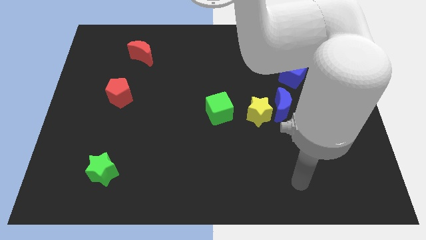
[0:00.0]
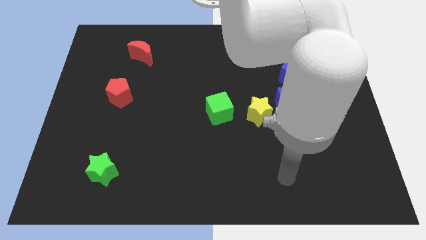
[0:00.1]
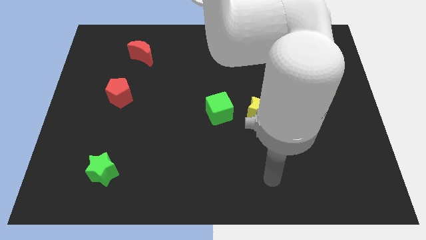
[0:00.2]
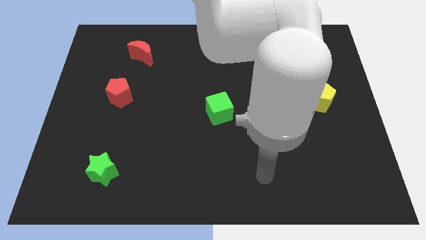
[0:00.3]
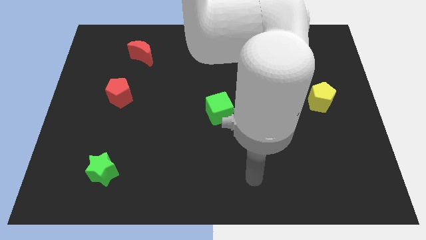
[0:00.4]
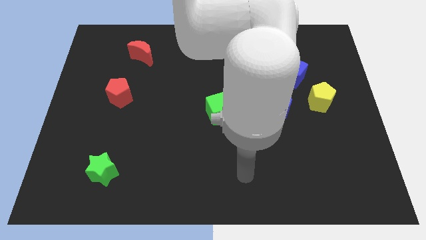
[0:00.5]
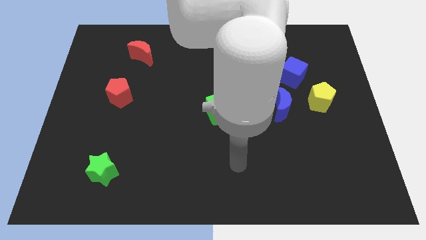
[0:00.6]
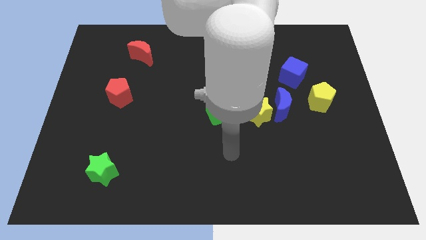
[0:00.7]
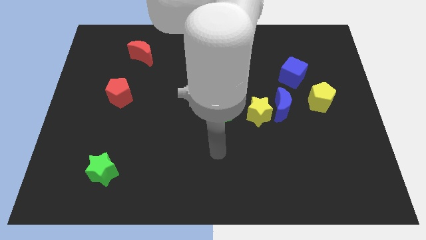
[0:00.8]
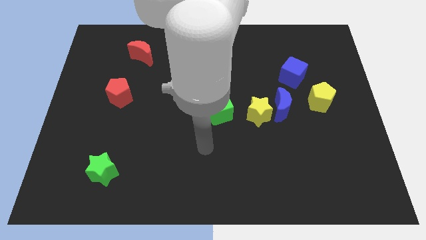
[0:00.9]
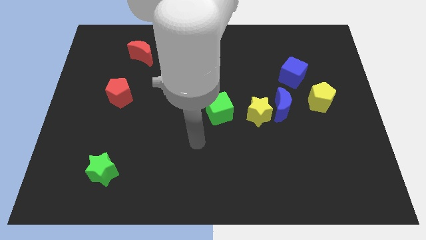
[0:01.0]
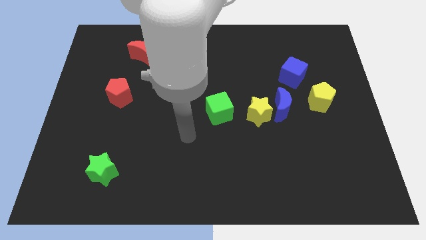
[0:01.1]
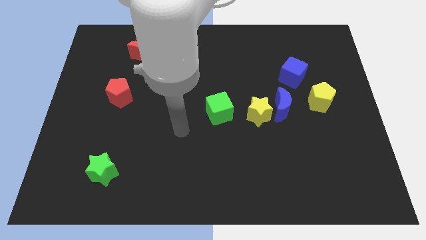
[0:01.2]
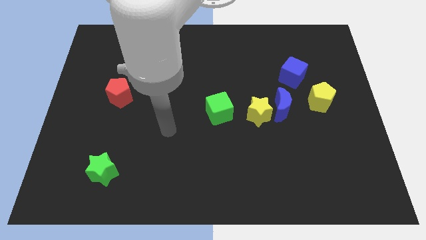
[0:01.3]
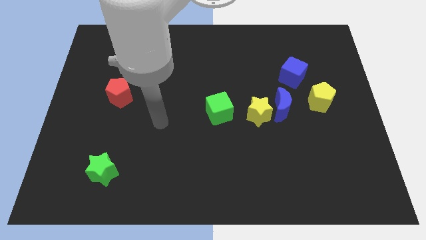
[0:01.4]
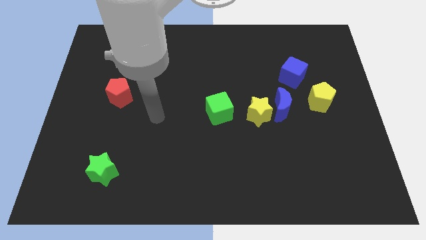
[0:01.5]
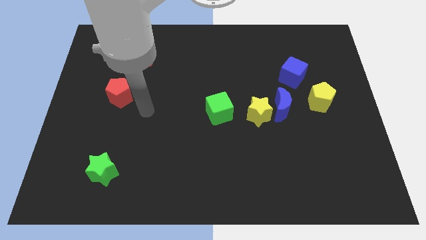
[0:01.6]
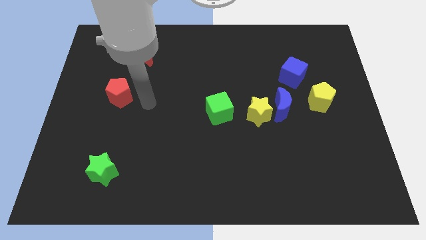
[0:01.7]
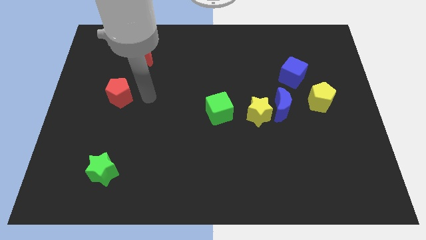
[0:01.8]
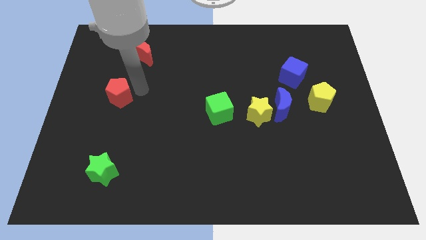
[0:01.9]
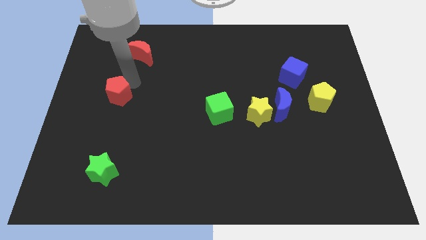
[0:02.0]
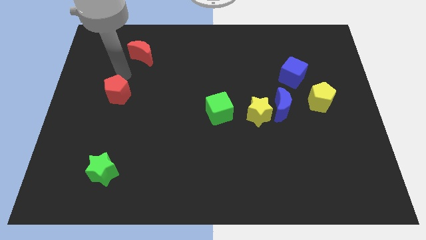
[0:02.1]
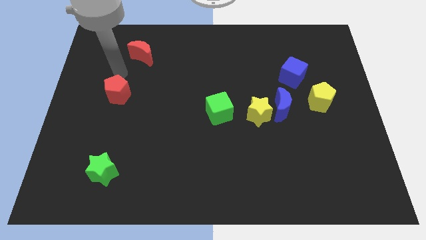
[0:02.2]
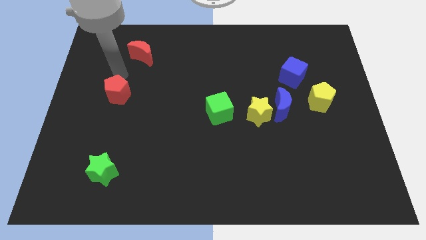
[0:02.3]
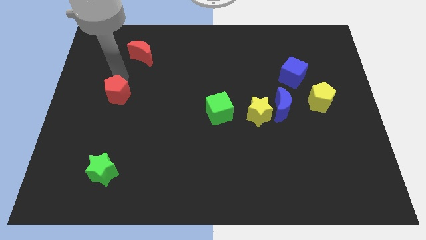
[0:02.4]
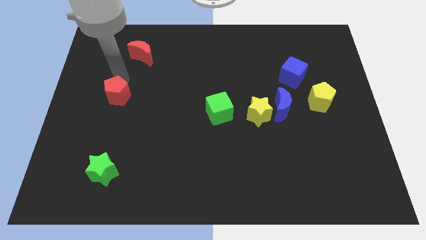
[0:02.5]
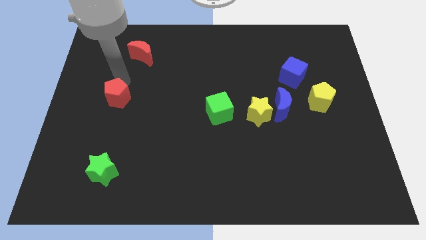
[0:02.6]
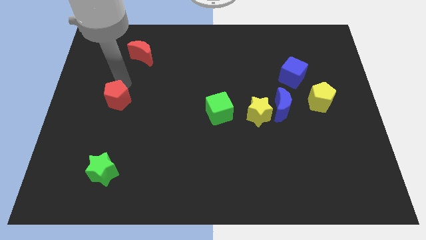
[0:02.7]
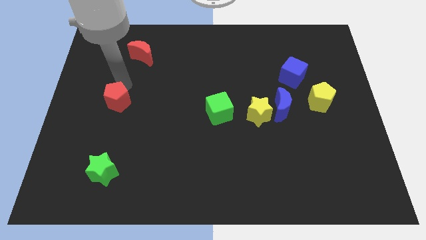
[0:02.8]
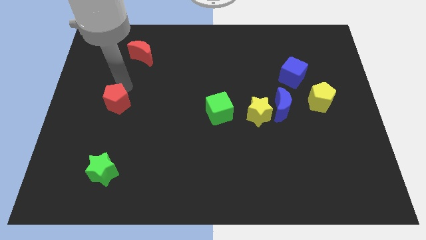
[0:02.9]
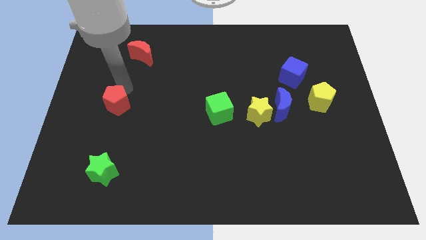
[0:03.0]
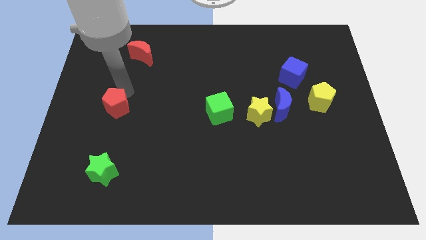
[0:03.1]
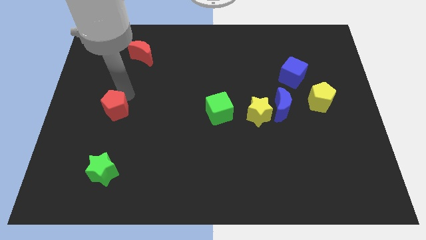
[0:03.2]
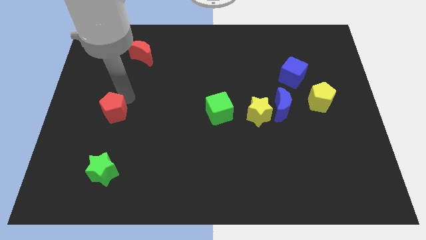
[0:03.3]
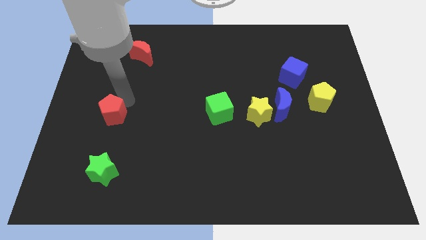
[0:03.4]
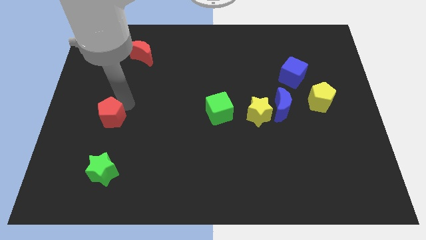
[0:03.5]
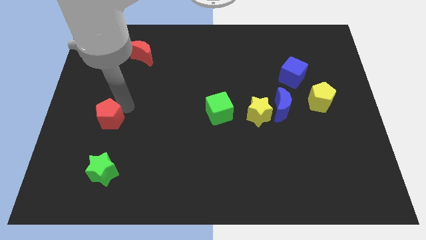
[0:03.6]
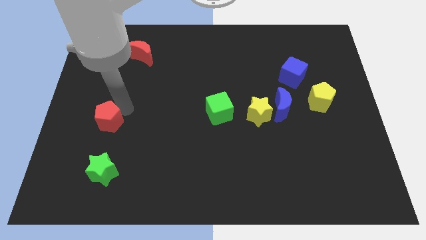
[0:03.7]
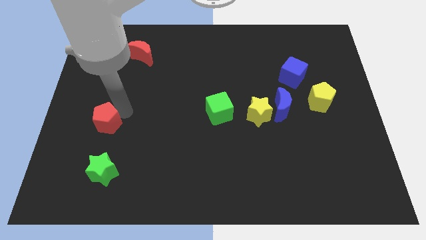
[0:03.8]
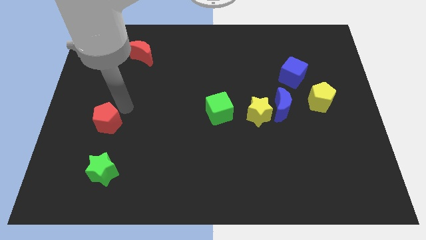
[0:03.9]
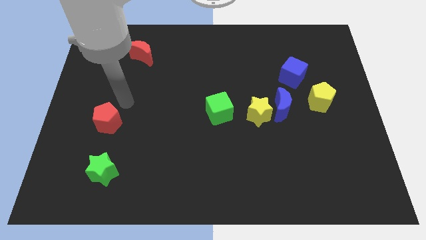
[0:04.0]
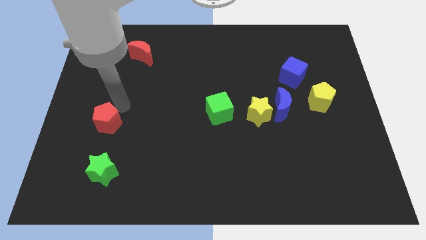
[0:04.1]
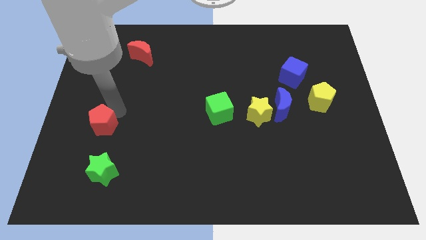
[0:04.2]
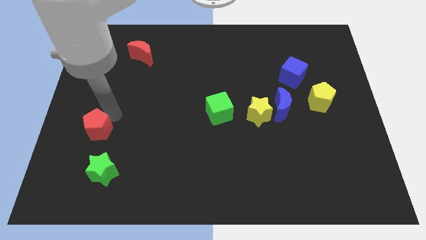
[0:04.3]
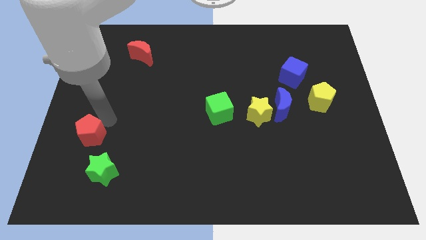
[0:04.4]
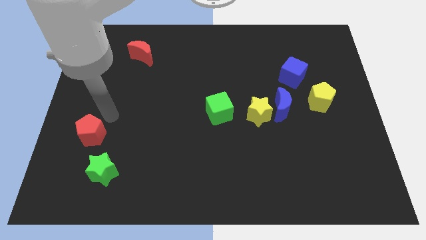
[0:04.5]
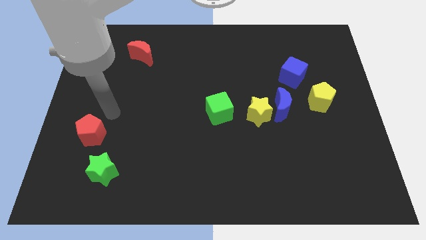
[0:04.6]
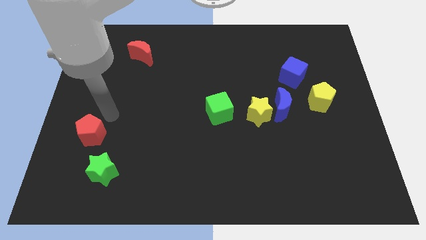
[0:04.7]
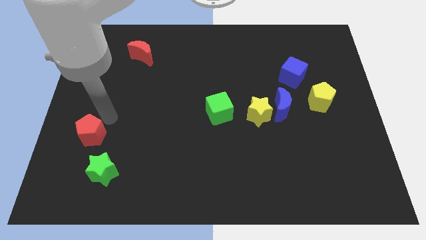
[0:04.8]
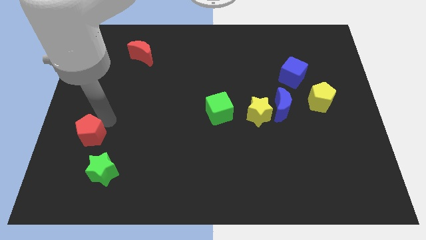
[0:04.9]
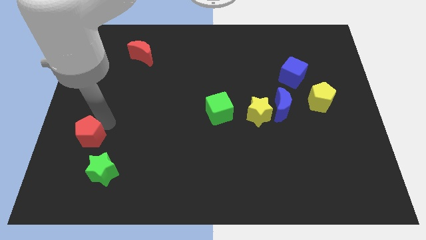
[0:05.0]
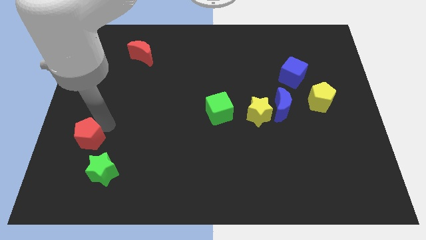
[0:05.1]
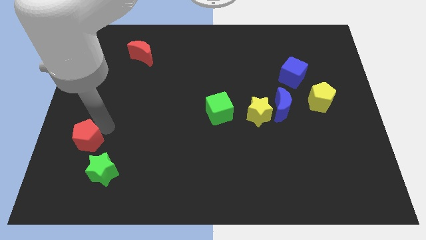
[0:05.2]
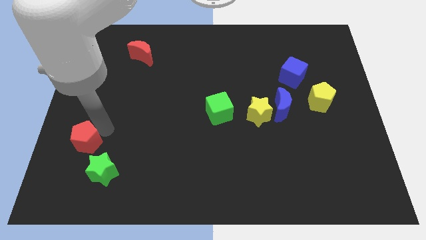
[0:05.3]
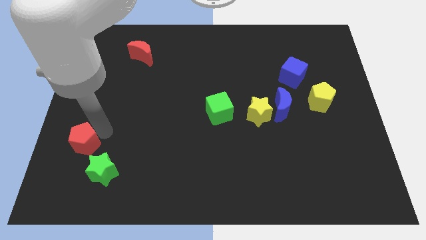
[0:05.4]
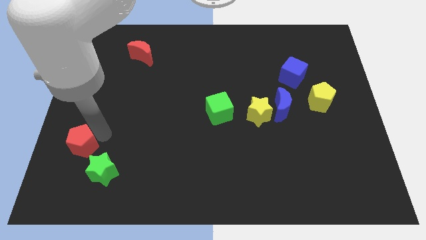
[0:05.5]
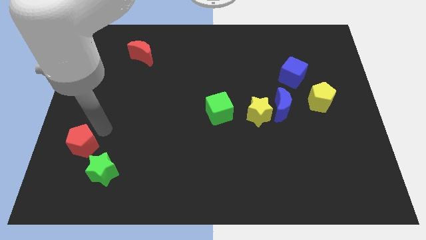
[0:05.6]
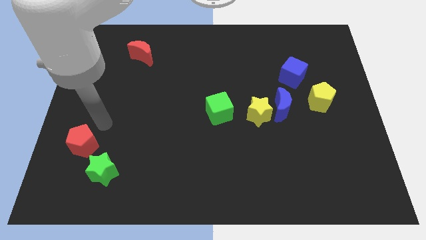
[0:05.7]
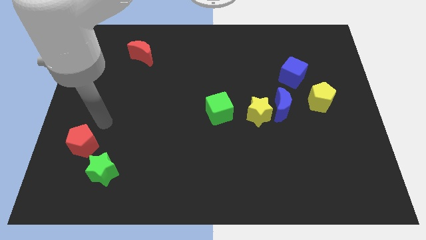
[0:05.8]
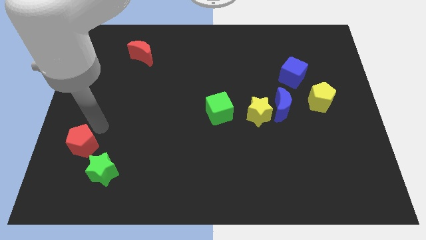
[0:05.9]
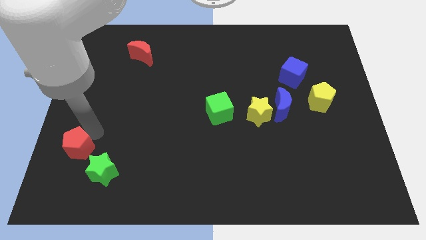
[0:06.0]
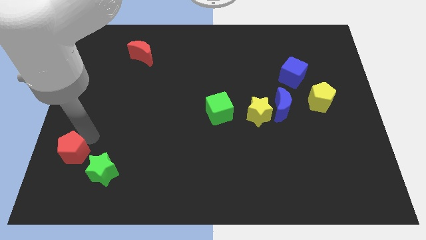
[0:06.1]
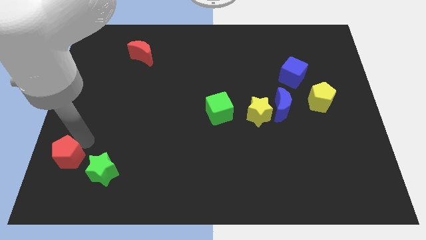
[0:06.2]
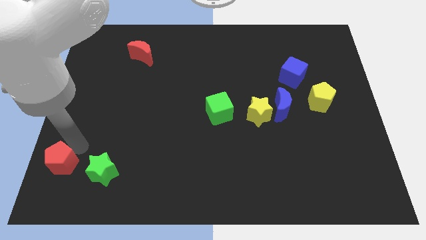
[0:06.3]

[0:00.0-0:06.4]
put the red pentagon to the bottom left

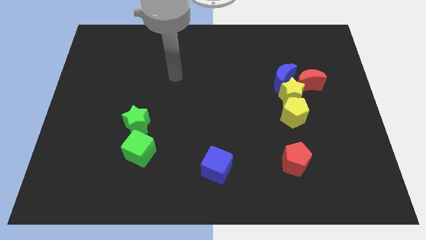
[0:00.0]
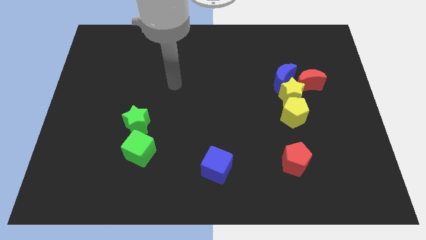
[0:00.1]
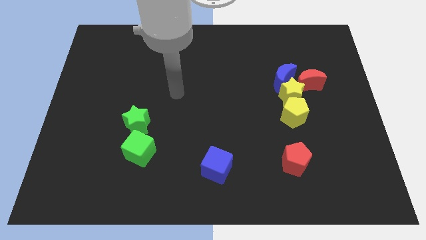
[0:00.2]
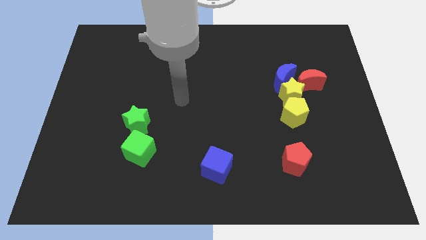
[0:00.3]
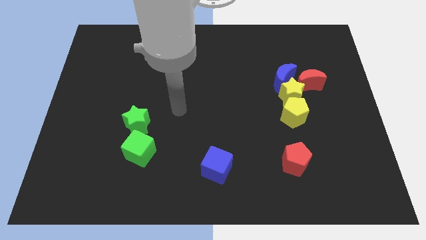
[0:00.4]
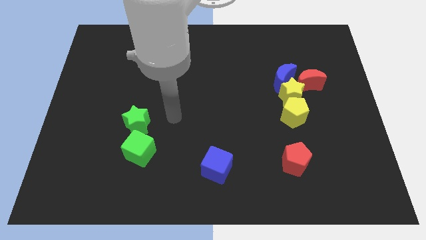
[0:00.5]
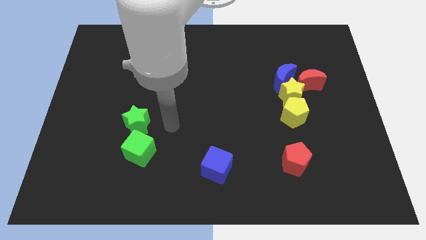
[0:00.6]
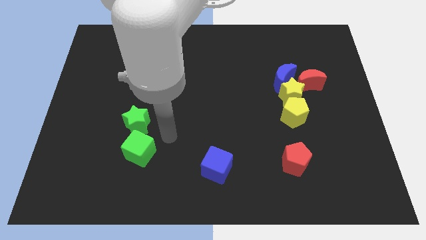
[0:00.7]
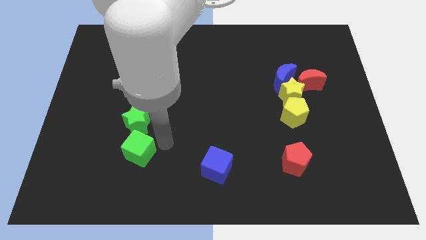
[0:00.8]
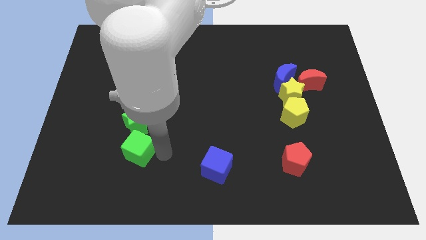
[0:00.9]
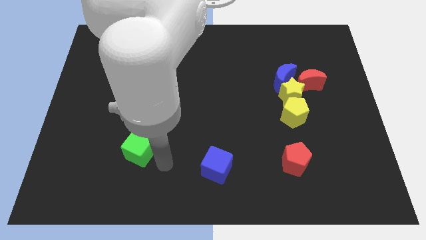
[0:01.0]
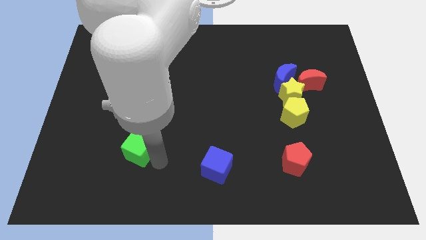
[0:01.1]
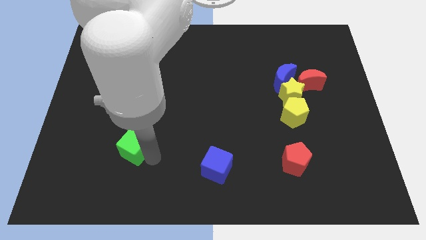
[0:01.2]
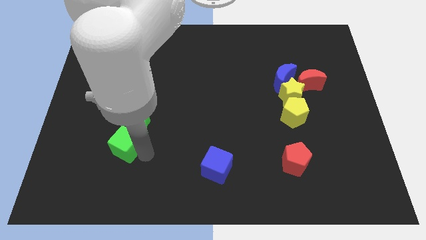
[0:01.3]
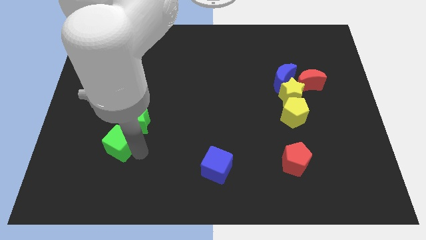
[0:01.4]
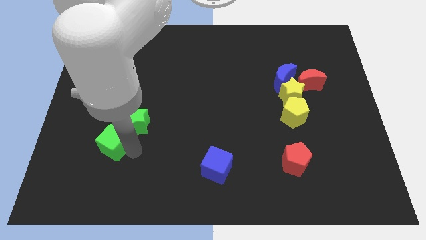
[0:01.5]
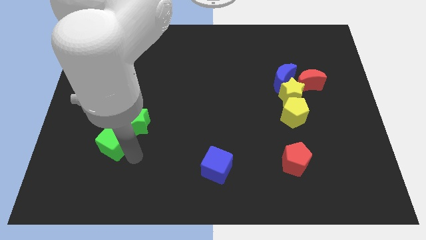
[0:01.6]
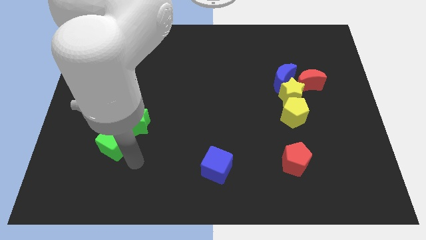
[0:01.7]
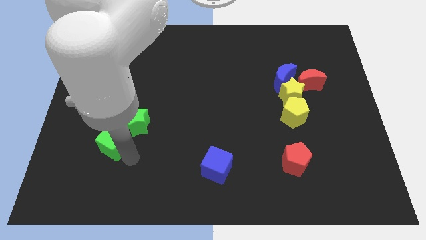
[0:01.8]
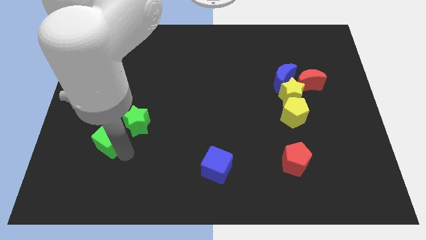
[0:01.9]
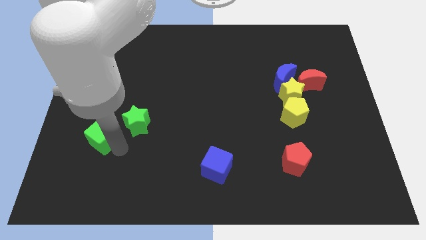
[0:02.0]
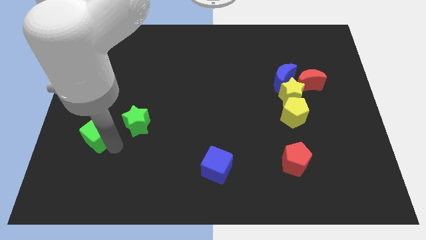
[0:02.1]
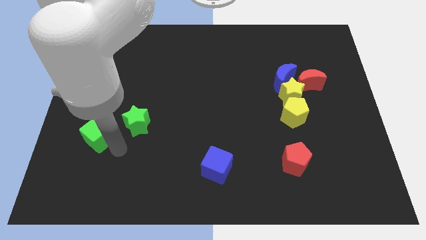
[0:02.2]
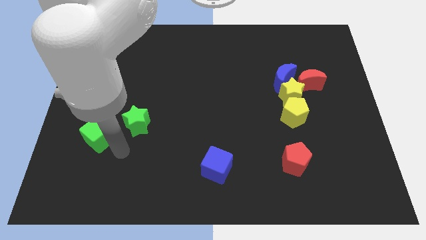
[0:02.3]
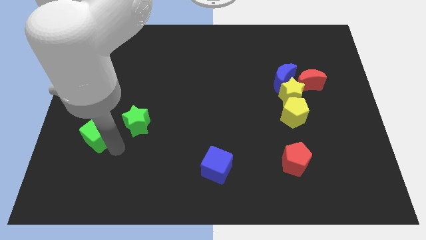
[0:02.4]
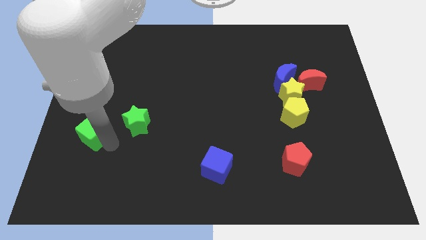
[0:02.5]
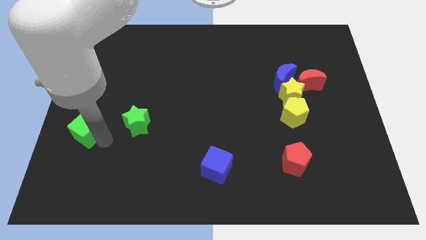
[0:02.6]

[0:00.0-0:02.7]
slide the green cube to the left side of the board
